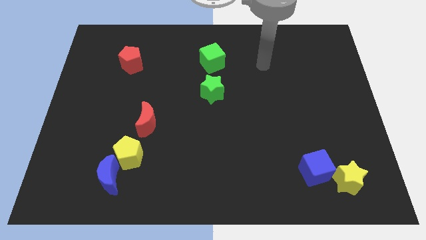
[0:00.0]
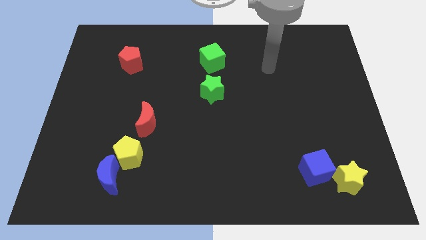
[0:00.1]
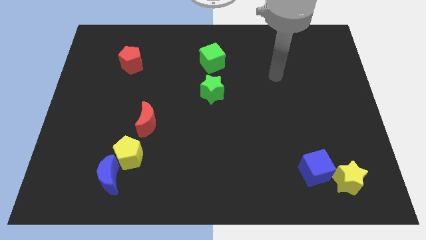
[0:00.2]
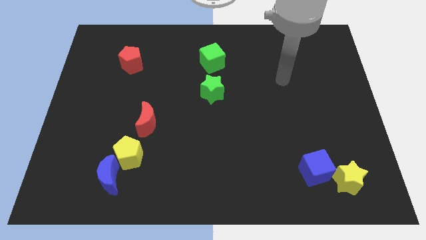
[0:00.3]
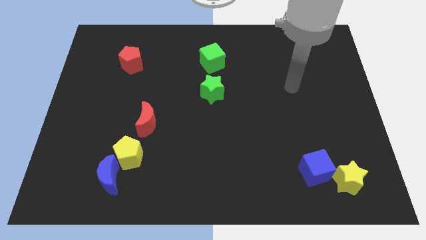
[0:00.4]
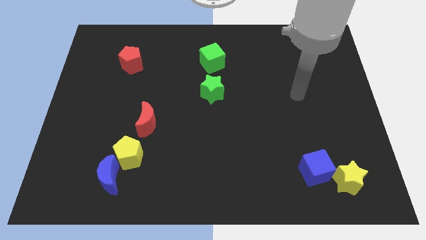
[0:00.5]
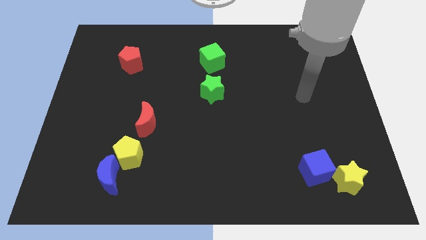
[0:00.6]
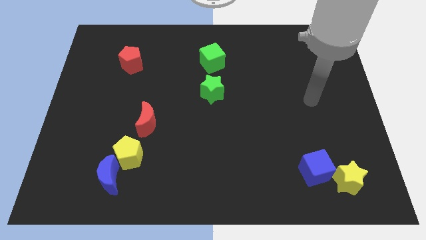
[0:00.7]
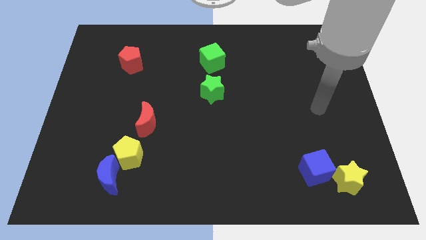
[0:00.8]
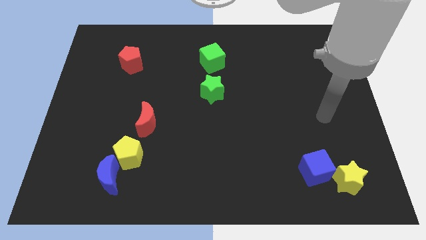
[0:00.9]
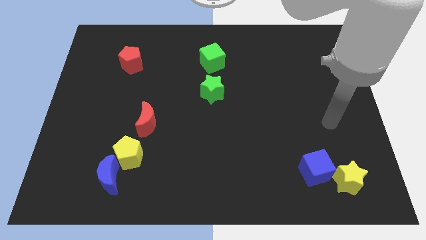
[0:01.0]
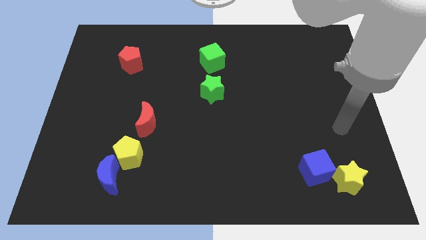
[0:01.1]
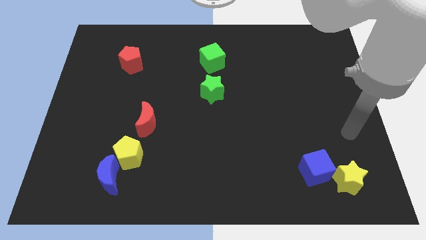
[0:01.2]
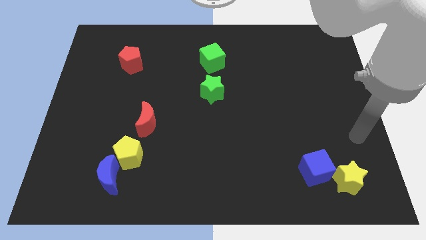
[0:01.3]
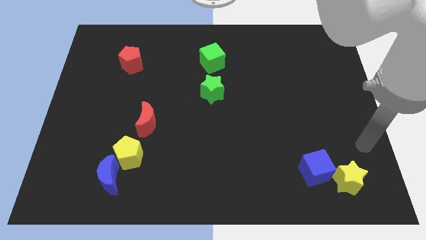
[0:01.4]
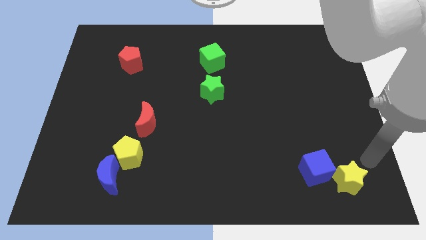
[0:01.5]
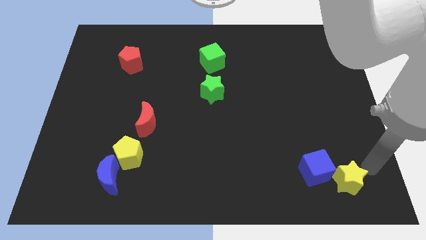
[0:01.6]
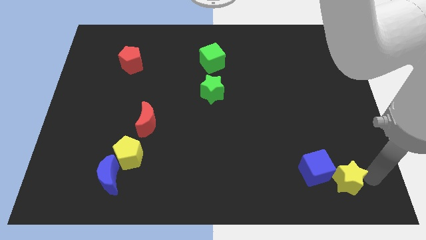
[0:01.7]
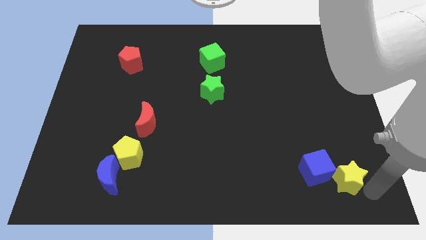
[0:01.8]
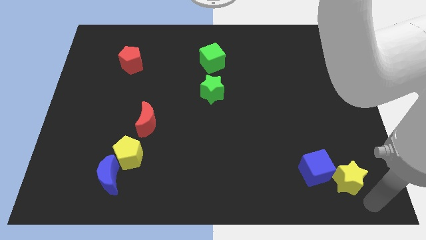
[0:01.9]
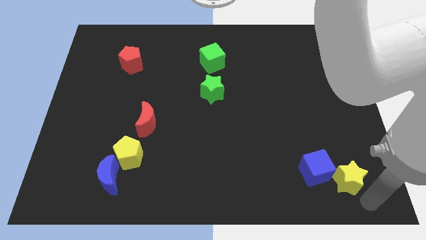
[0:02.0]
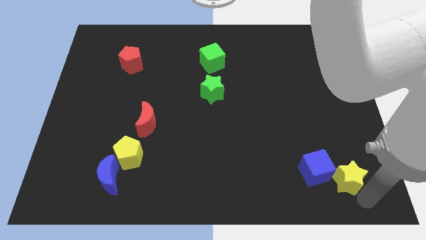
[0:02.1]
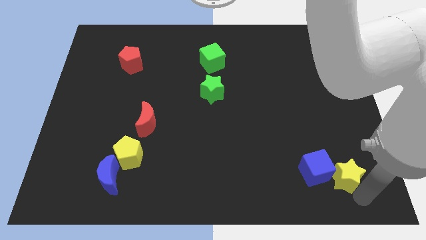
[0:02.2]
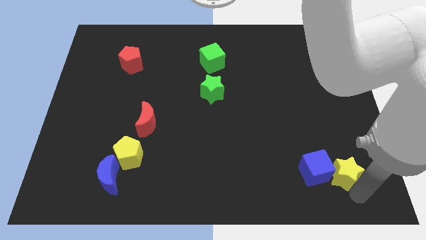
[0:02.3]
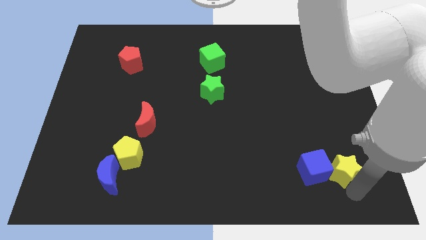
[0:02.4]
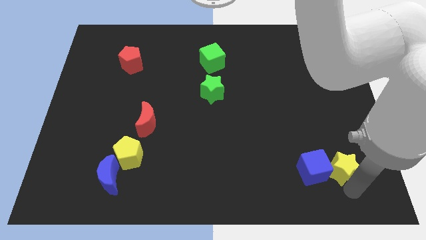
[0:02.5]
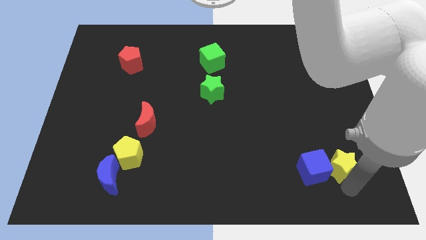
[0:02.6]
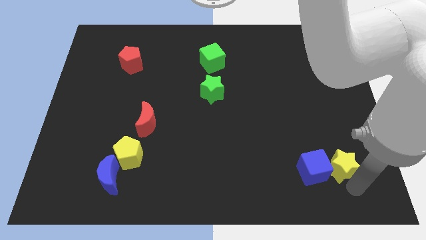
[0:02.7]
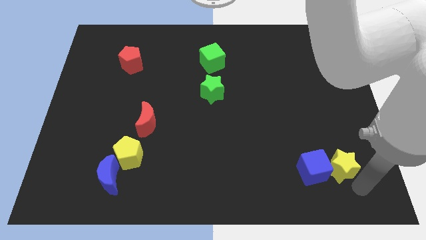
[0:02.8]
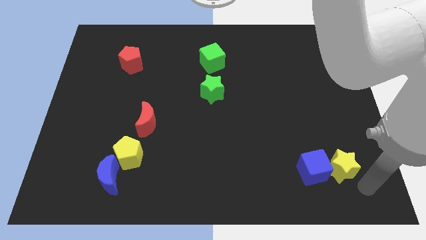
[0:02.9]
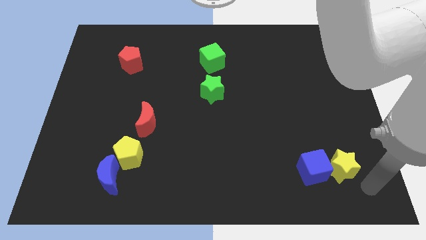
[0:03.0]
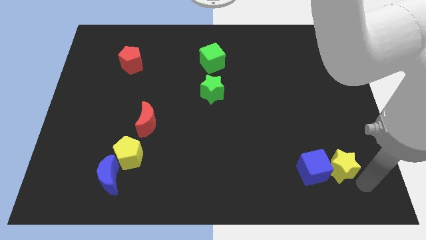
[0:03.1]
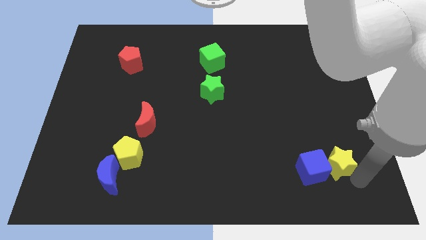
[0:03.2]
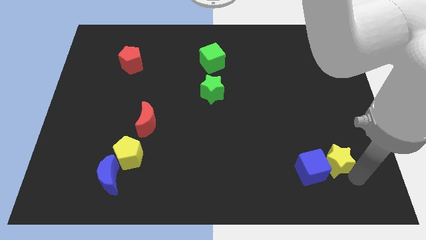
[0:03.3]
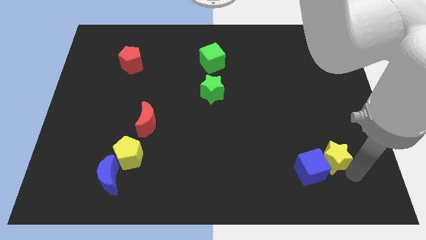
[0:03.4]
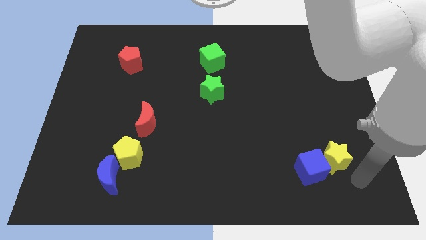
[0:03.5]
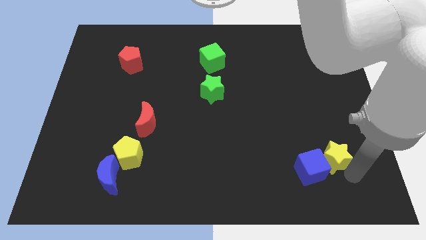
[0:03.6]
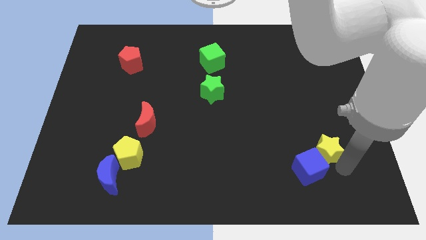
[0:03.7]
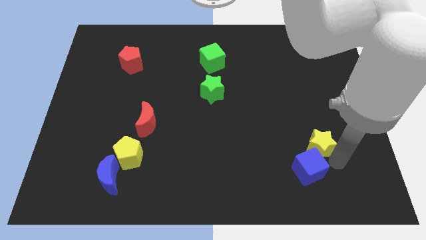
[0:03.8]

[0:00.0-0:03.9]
push the yellow star up and to the left diagonally somewhat

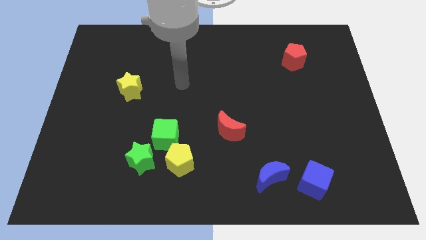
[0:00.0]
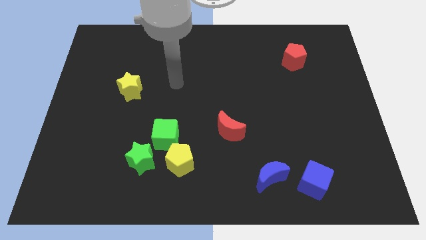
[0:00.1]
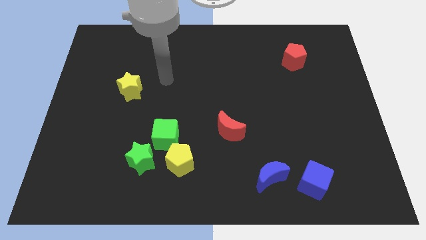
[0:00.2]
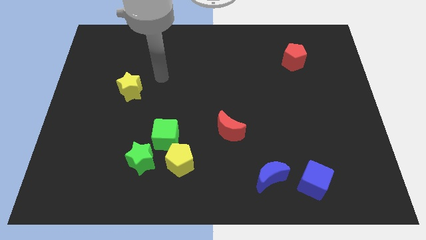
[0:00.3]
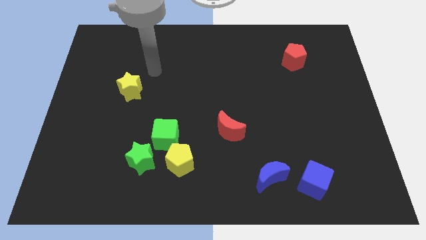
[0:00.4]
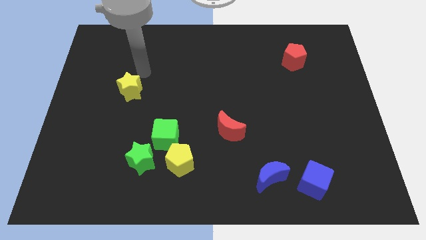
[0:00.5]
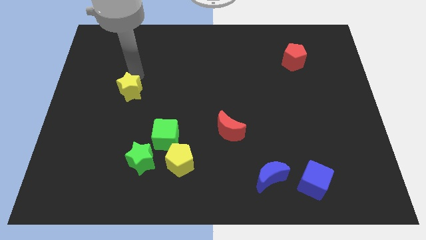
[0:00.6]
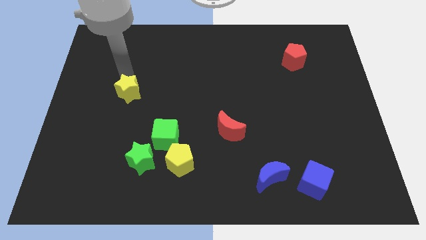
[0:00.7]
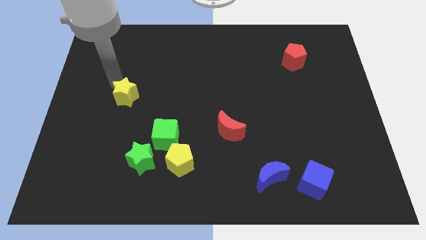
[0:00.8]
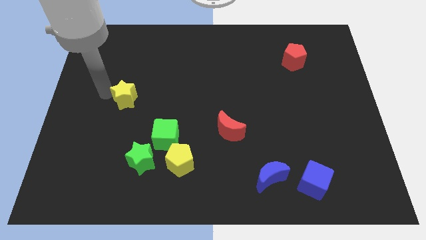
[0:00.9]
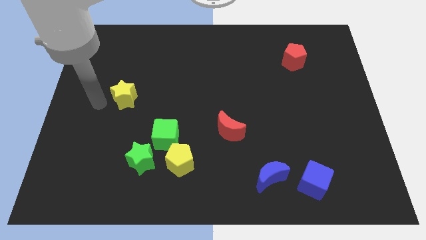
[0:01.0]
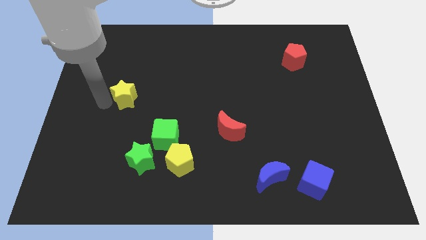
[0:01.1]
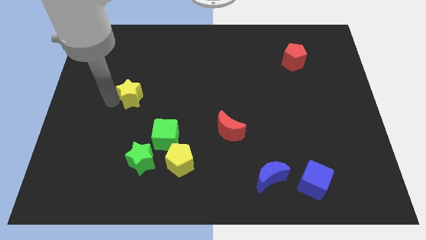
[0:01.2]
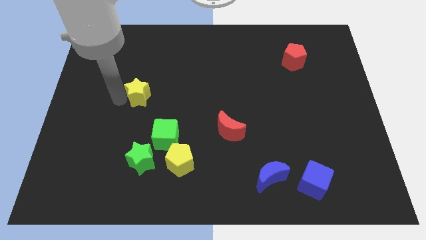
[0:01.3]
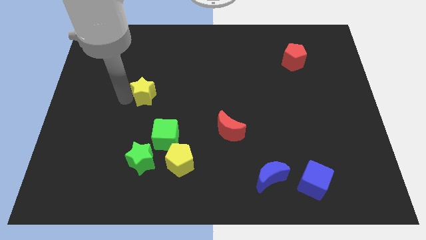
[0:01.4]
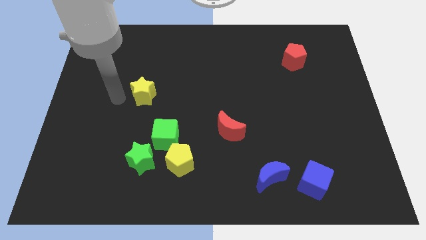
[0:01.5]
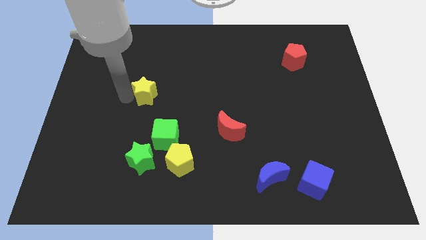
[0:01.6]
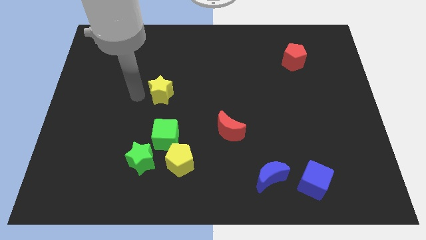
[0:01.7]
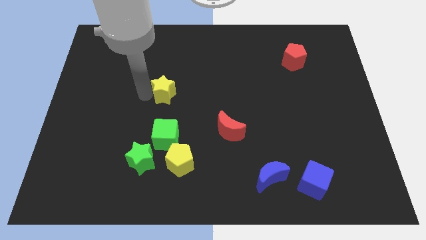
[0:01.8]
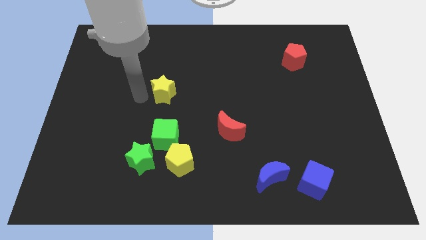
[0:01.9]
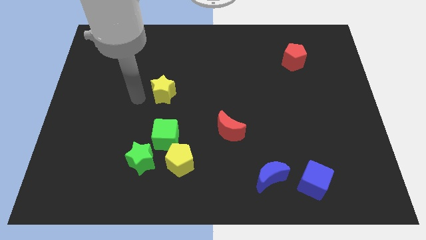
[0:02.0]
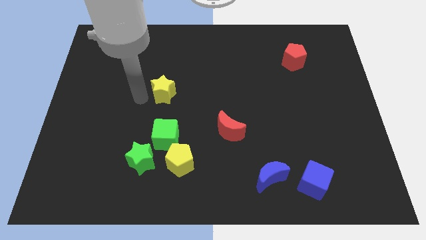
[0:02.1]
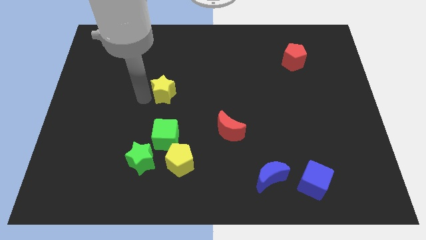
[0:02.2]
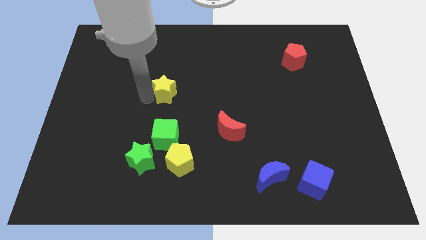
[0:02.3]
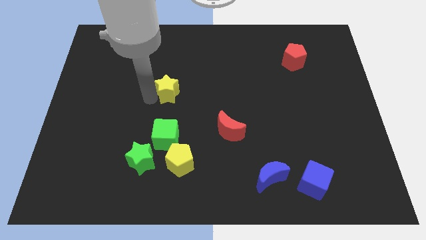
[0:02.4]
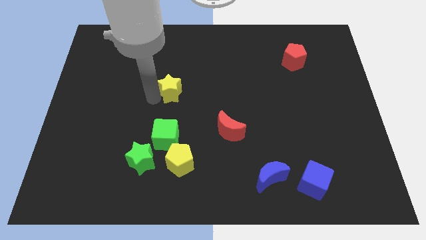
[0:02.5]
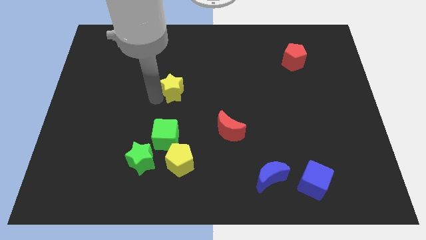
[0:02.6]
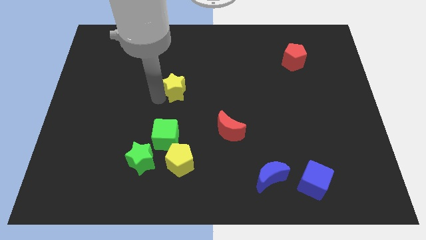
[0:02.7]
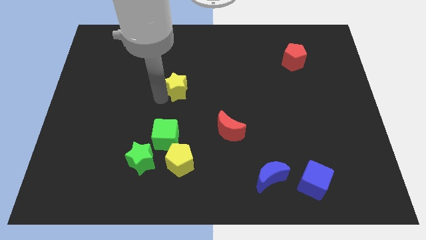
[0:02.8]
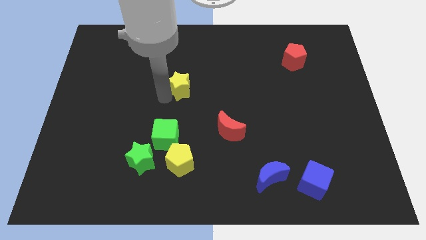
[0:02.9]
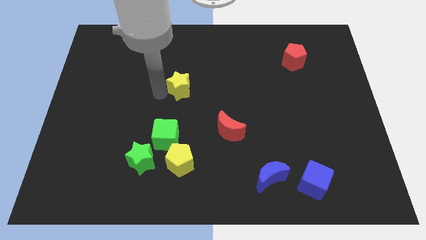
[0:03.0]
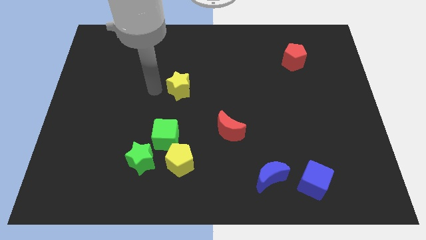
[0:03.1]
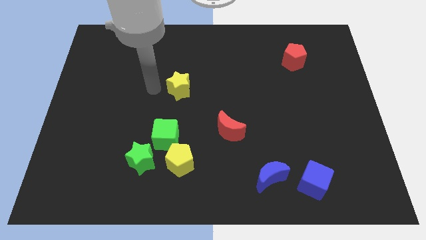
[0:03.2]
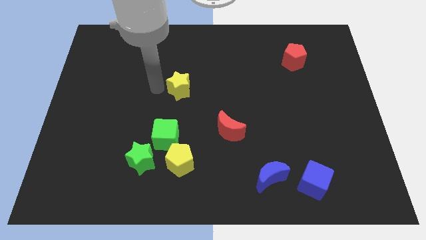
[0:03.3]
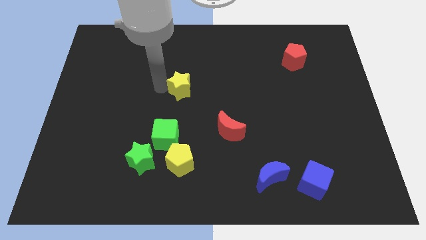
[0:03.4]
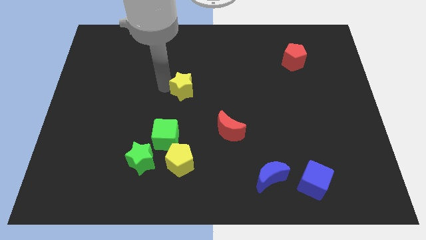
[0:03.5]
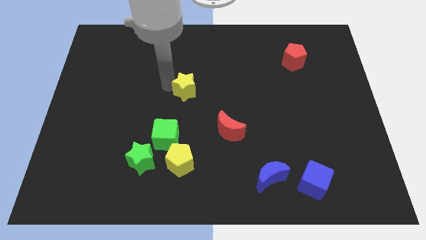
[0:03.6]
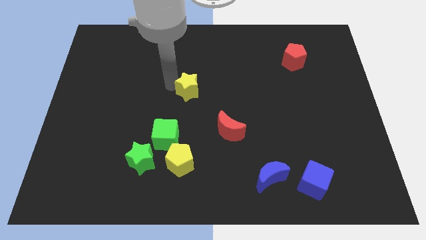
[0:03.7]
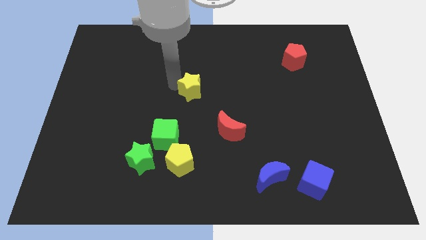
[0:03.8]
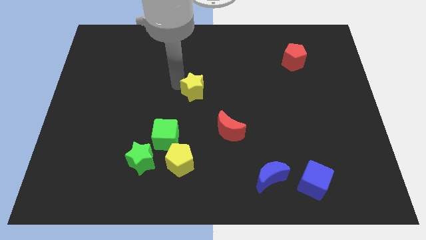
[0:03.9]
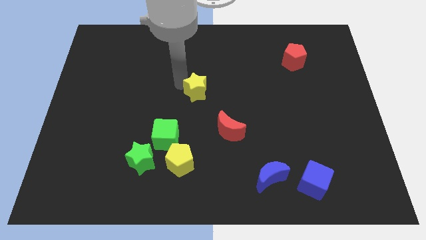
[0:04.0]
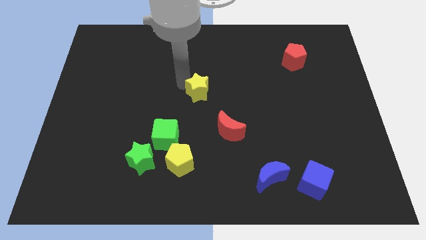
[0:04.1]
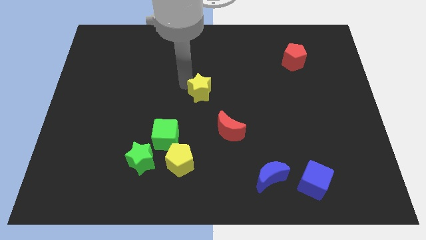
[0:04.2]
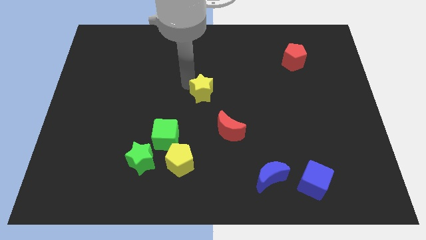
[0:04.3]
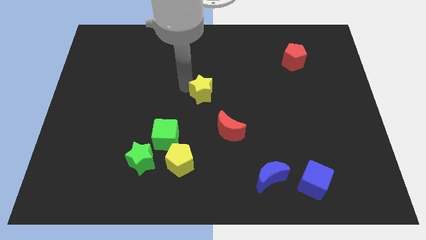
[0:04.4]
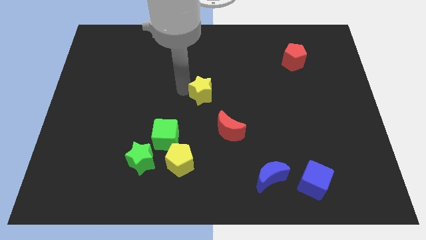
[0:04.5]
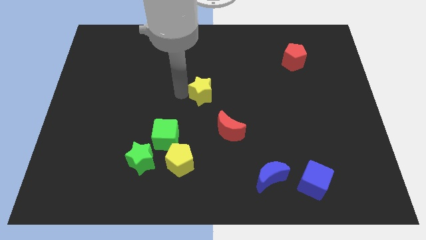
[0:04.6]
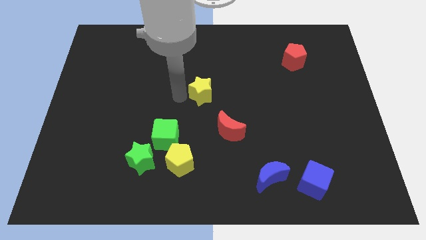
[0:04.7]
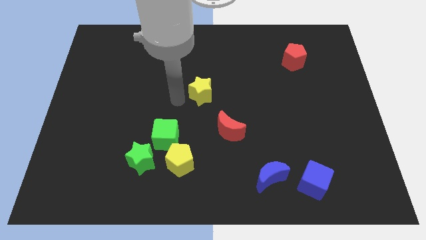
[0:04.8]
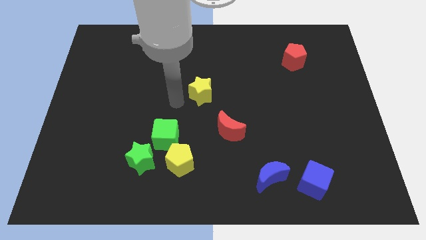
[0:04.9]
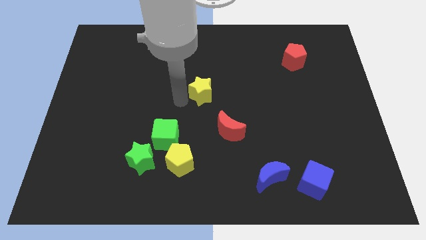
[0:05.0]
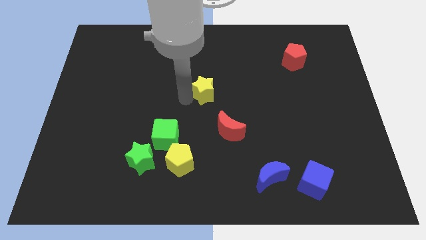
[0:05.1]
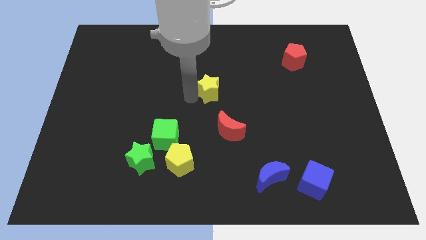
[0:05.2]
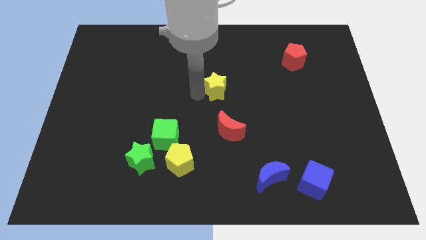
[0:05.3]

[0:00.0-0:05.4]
slide the yellow star right
